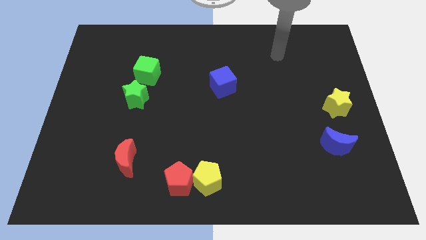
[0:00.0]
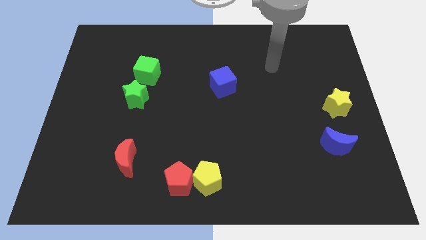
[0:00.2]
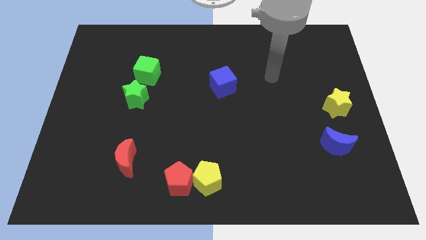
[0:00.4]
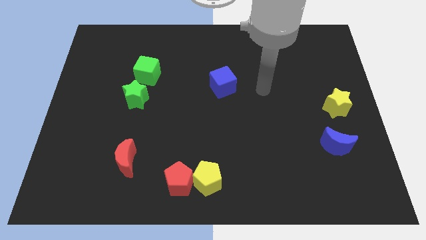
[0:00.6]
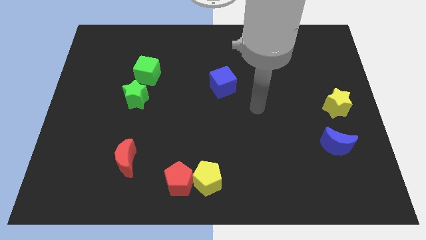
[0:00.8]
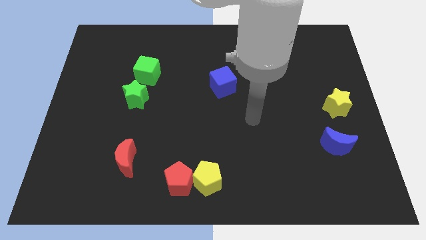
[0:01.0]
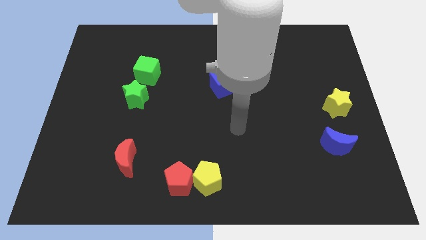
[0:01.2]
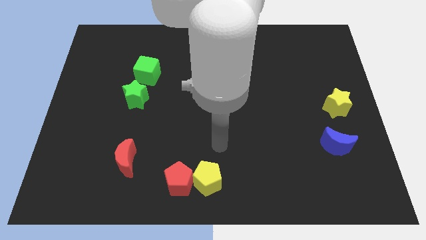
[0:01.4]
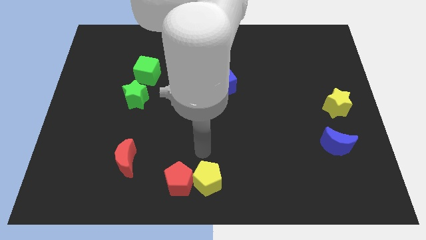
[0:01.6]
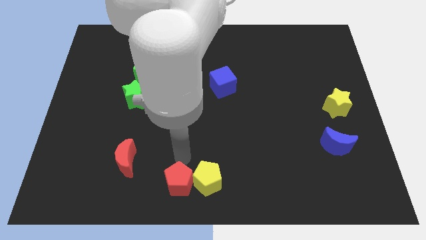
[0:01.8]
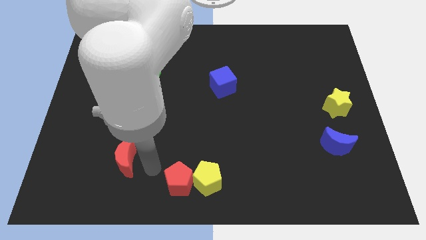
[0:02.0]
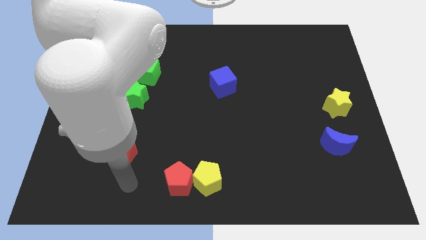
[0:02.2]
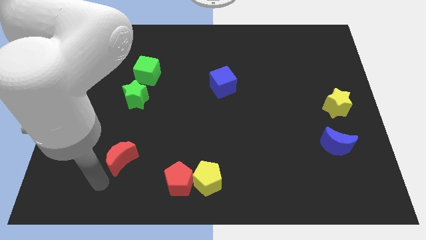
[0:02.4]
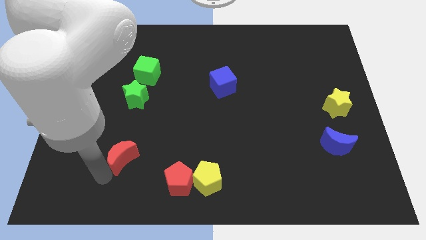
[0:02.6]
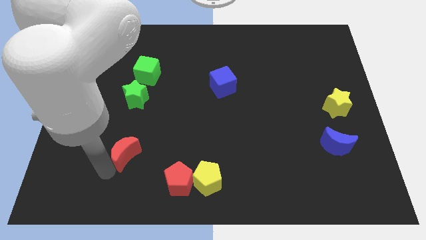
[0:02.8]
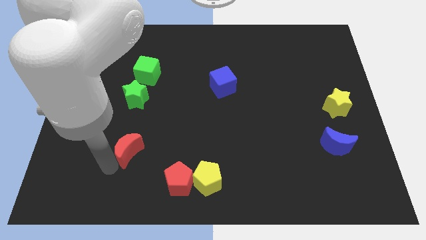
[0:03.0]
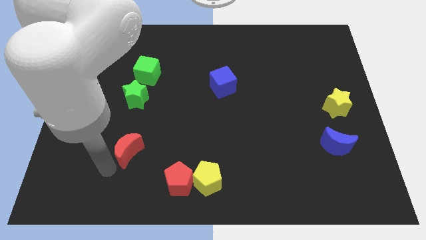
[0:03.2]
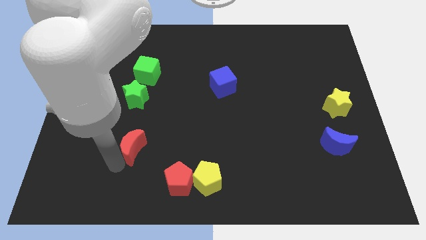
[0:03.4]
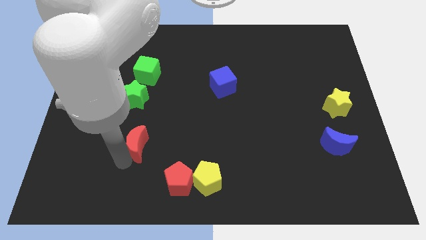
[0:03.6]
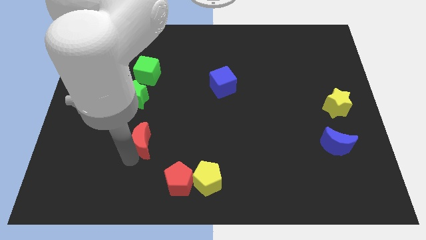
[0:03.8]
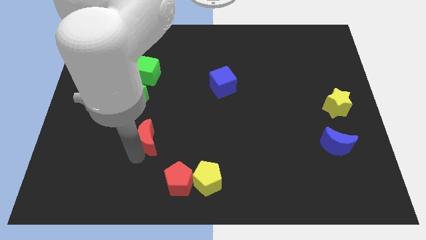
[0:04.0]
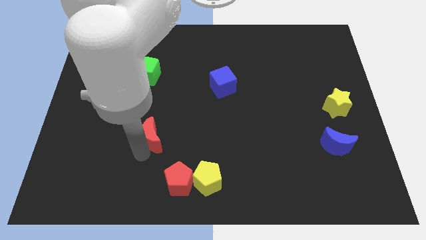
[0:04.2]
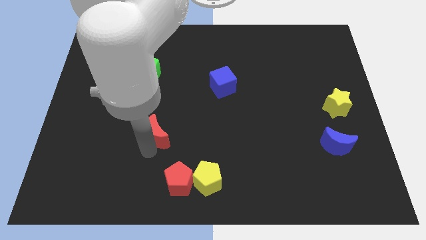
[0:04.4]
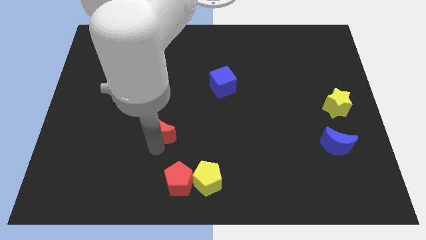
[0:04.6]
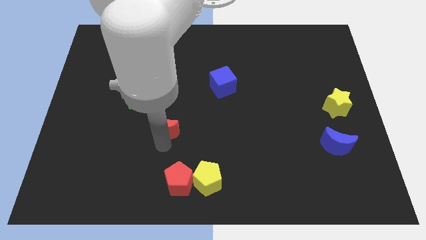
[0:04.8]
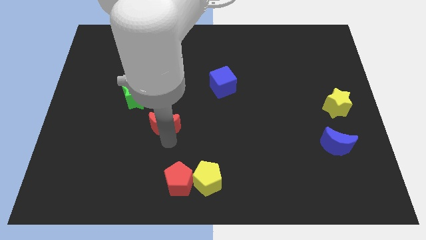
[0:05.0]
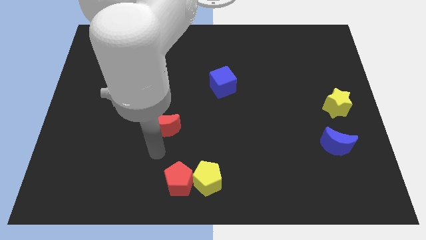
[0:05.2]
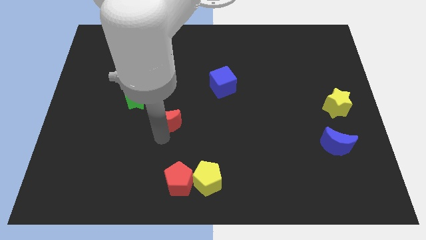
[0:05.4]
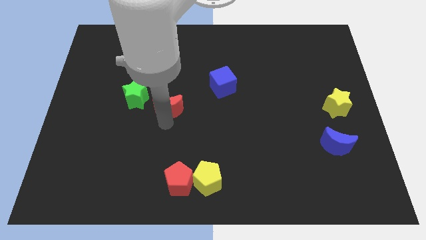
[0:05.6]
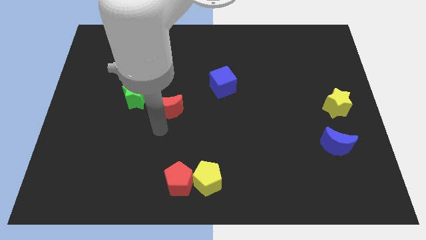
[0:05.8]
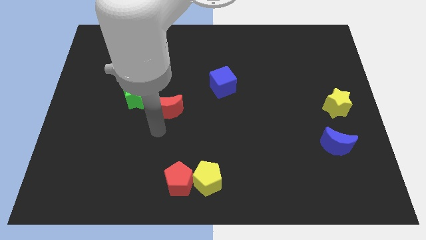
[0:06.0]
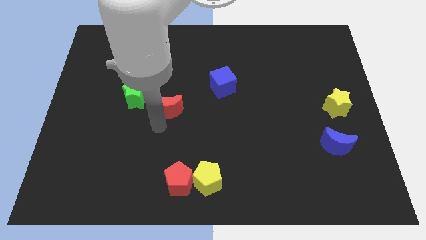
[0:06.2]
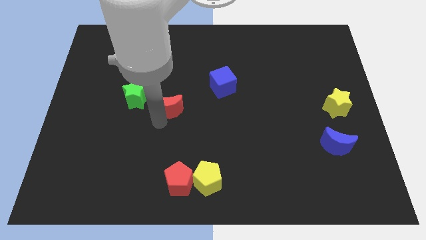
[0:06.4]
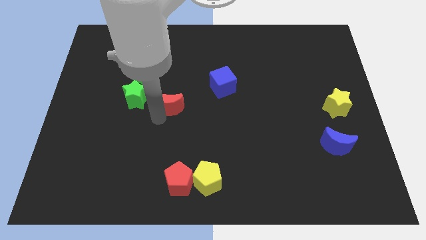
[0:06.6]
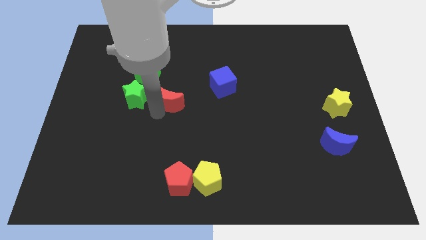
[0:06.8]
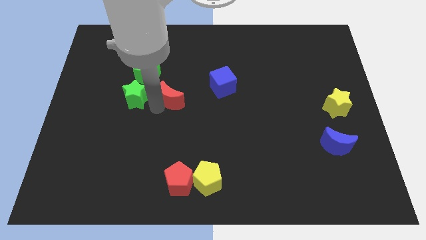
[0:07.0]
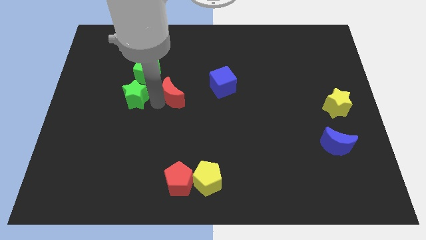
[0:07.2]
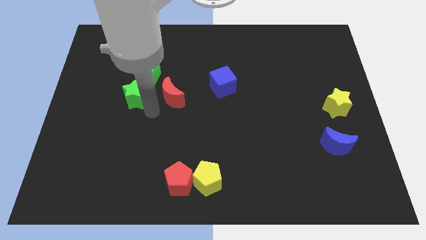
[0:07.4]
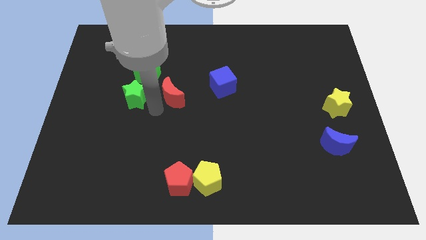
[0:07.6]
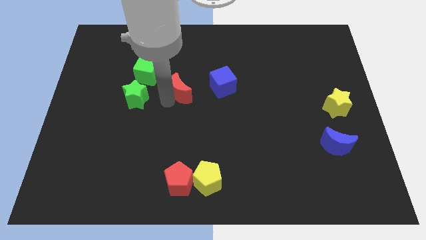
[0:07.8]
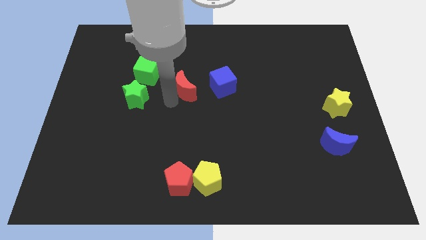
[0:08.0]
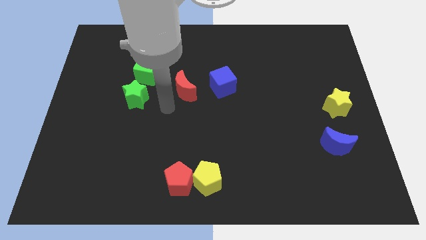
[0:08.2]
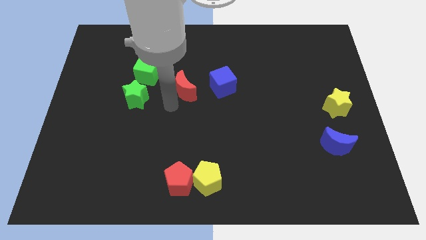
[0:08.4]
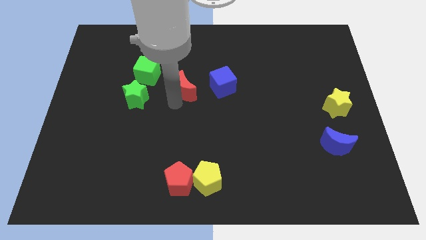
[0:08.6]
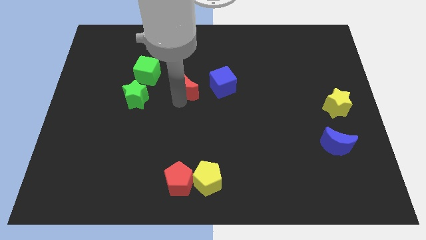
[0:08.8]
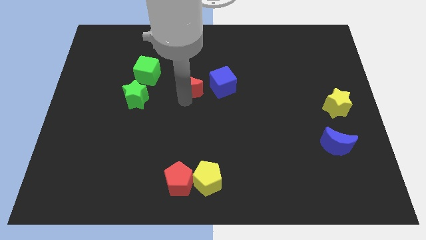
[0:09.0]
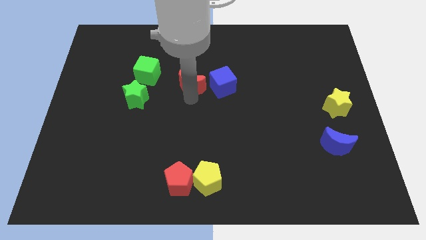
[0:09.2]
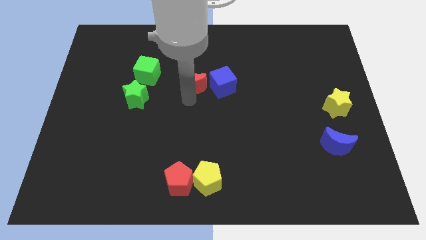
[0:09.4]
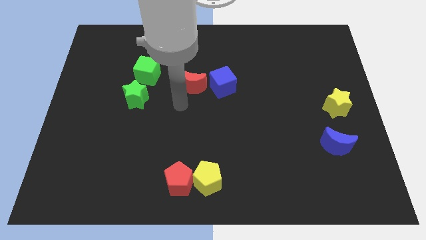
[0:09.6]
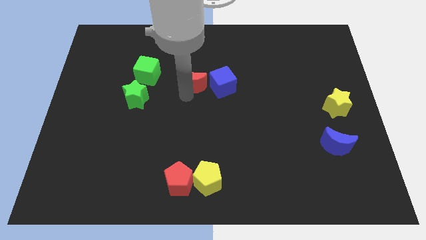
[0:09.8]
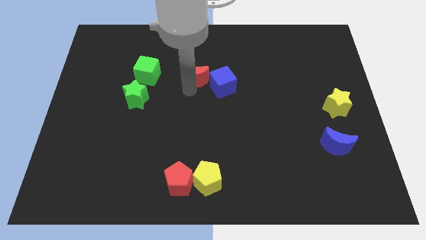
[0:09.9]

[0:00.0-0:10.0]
slide the red moon to the top left side of the blue cube

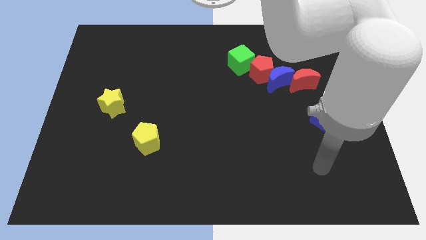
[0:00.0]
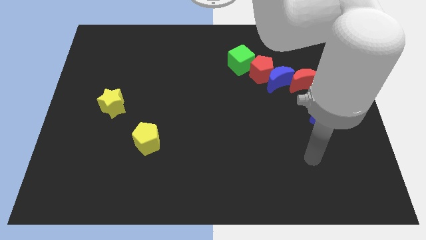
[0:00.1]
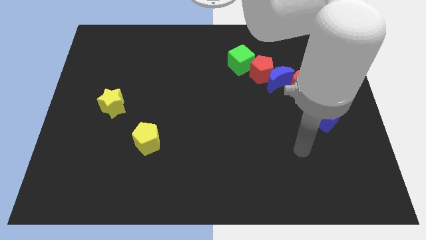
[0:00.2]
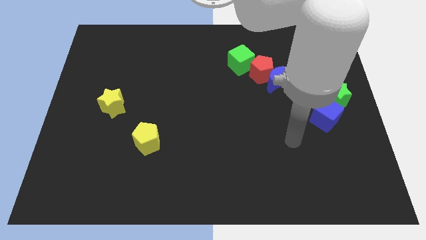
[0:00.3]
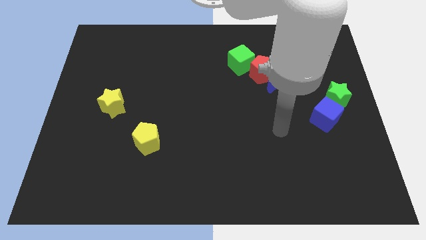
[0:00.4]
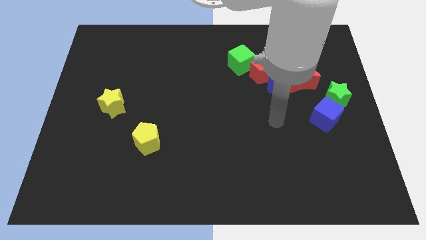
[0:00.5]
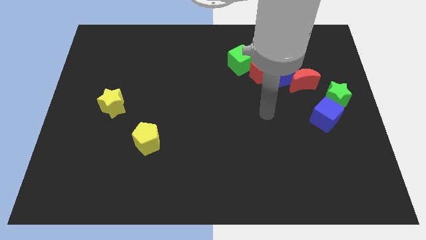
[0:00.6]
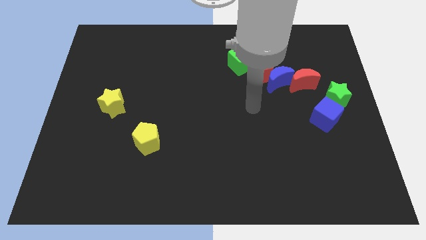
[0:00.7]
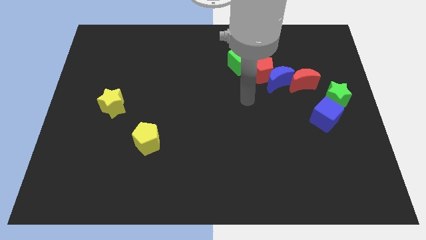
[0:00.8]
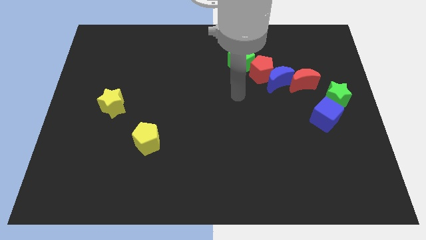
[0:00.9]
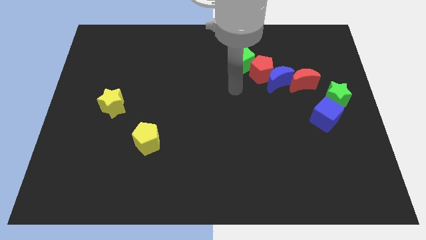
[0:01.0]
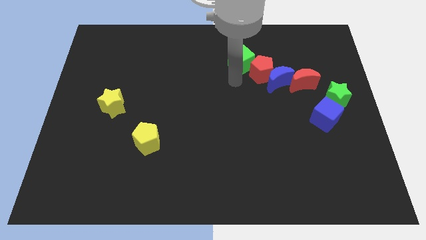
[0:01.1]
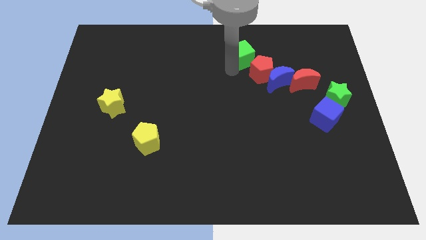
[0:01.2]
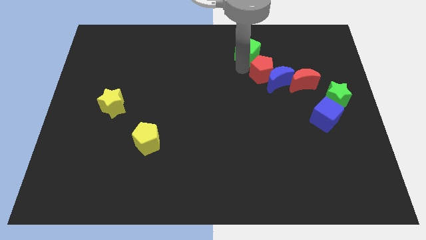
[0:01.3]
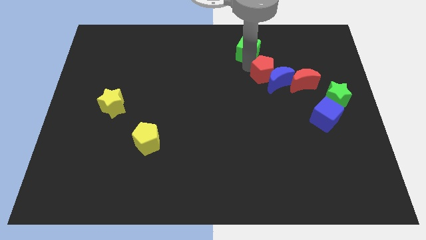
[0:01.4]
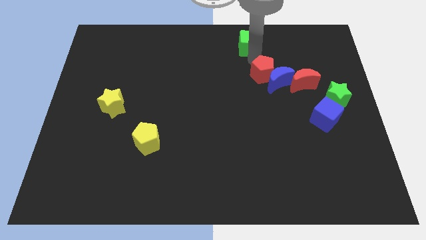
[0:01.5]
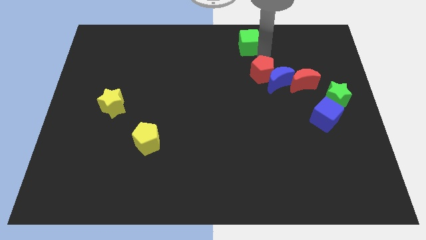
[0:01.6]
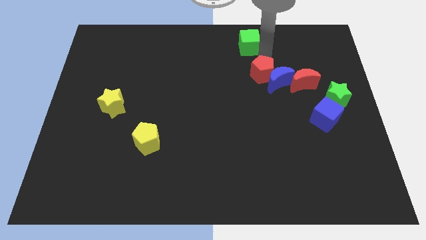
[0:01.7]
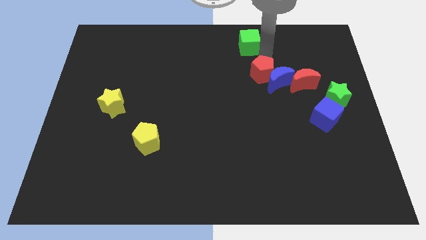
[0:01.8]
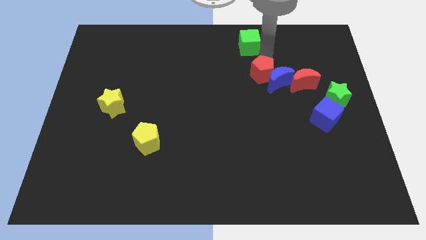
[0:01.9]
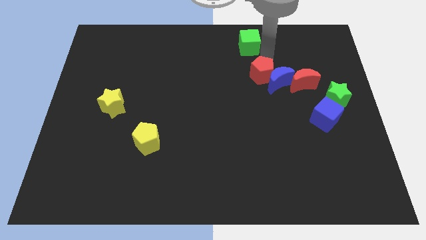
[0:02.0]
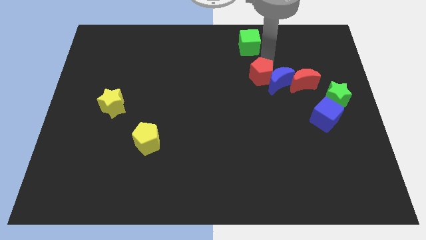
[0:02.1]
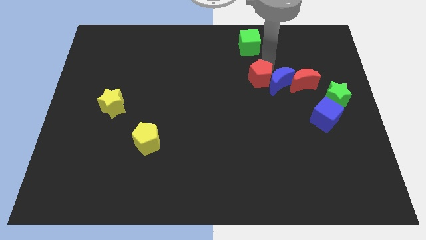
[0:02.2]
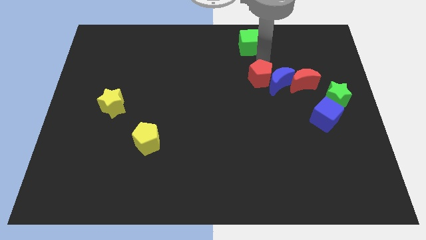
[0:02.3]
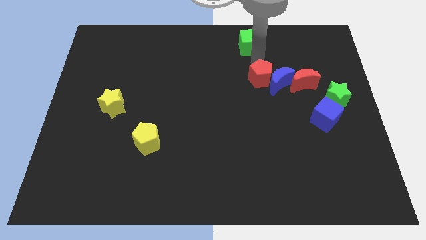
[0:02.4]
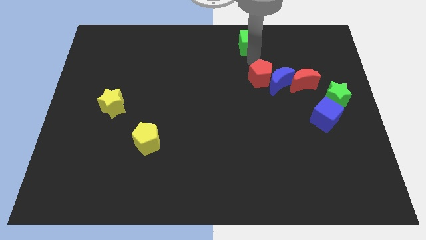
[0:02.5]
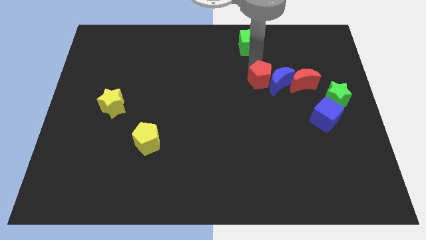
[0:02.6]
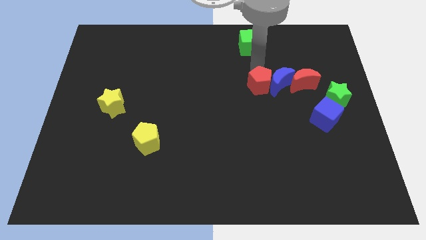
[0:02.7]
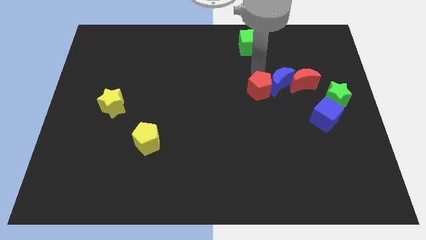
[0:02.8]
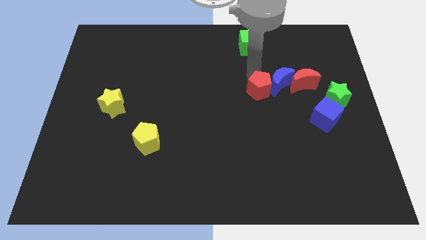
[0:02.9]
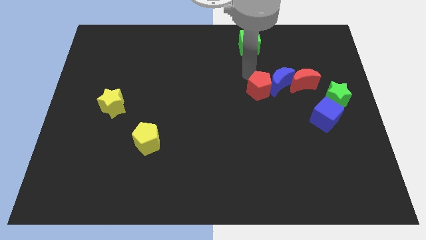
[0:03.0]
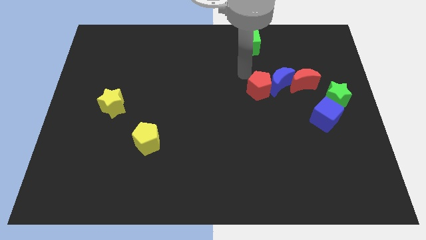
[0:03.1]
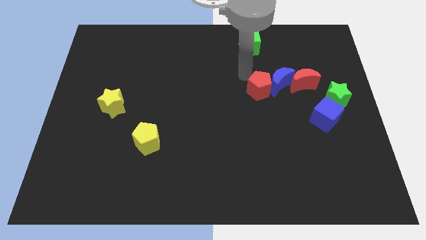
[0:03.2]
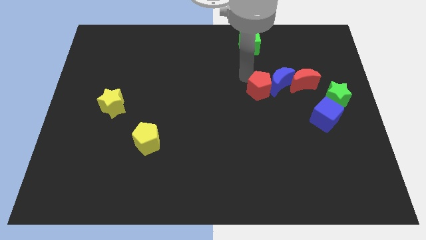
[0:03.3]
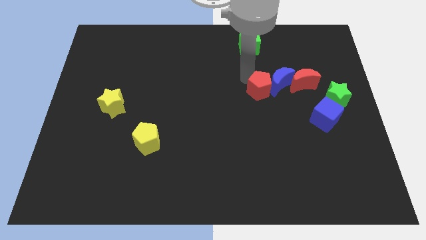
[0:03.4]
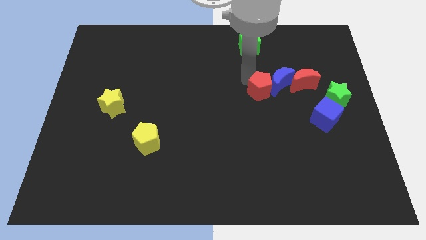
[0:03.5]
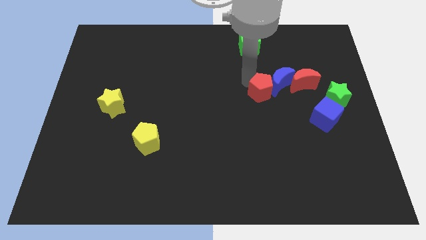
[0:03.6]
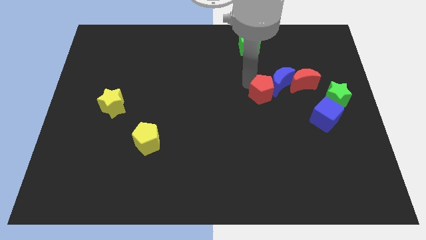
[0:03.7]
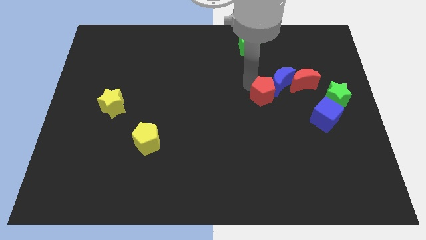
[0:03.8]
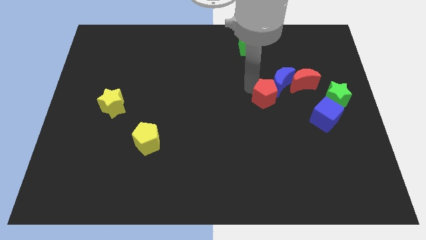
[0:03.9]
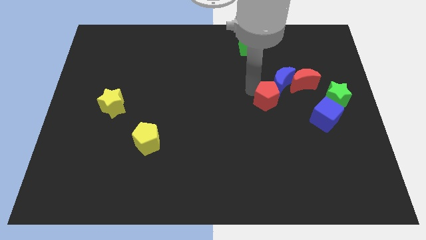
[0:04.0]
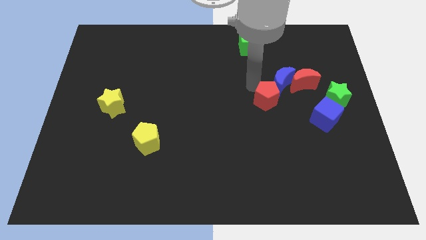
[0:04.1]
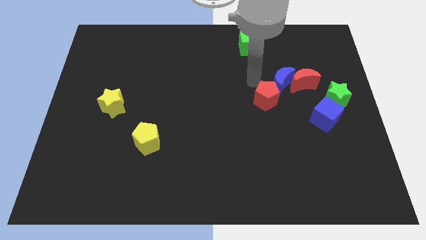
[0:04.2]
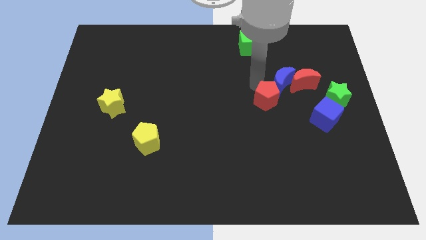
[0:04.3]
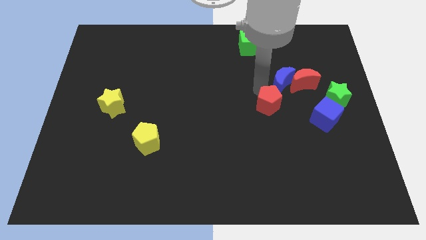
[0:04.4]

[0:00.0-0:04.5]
put the red pentagon to the left of the blue cube
